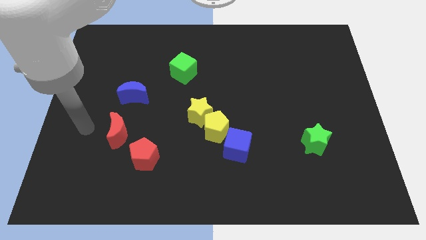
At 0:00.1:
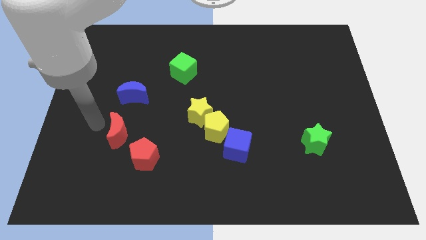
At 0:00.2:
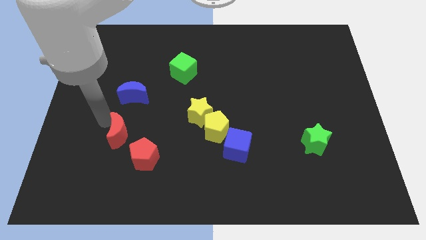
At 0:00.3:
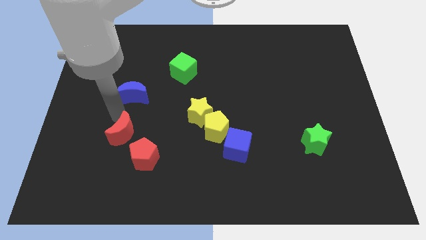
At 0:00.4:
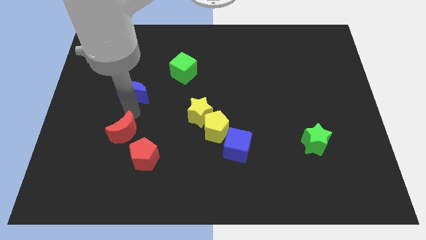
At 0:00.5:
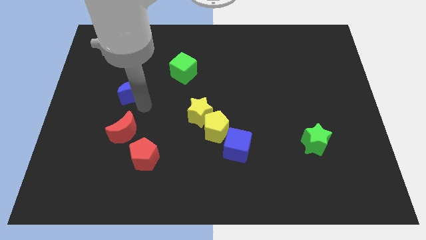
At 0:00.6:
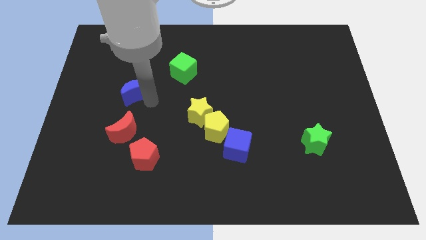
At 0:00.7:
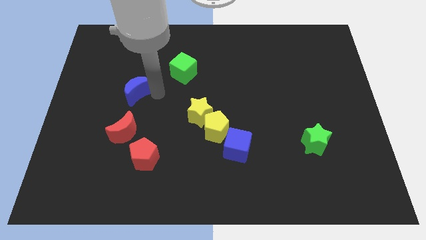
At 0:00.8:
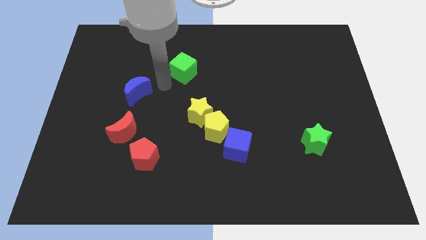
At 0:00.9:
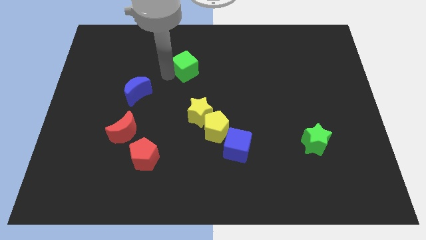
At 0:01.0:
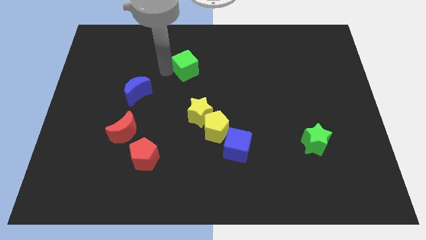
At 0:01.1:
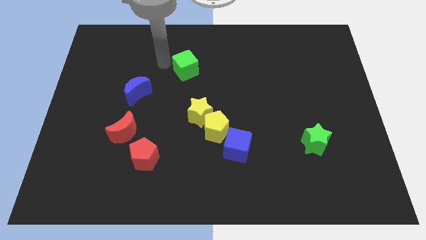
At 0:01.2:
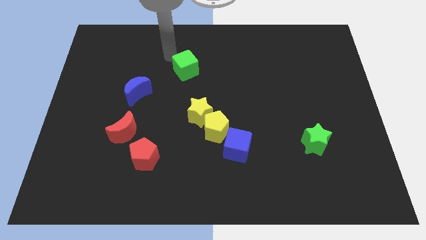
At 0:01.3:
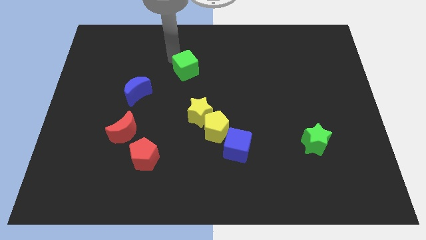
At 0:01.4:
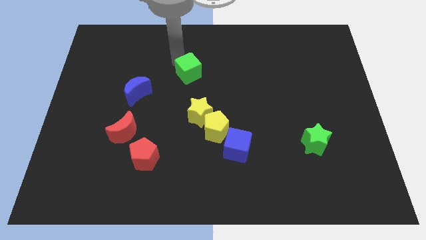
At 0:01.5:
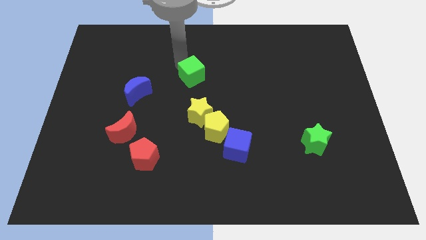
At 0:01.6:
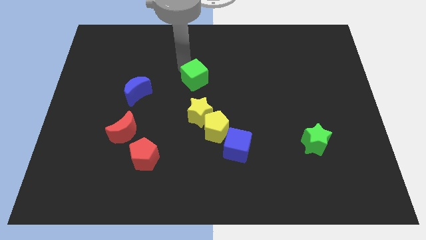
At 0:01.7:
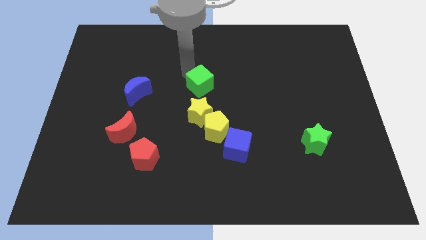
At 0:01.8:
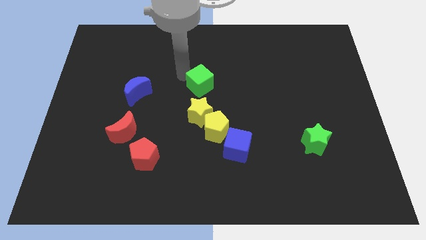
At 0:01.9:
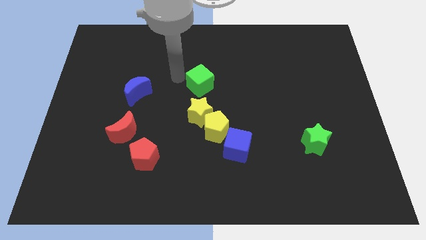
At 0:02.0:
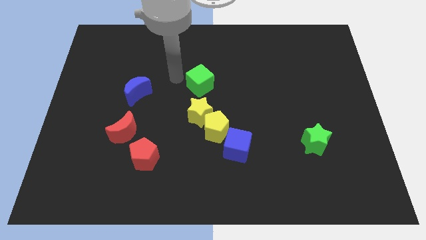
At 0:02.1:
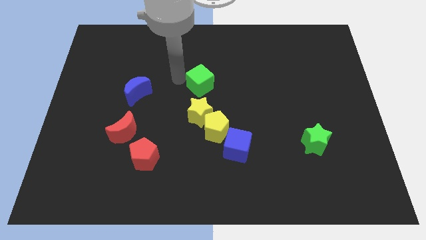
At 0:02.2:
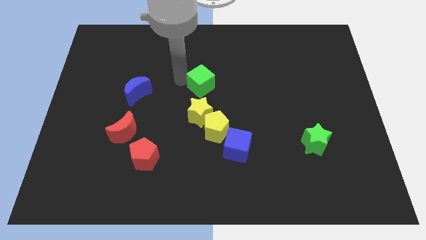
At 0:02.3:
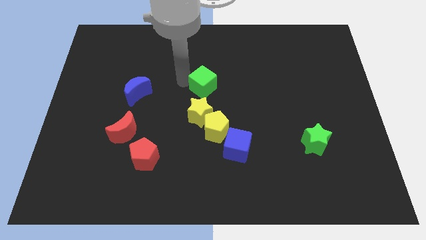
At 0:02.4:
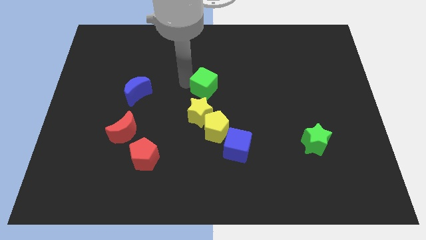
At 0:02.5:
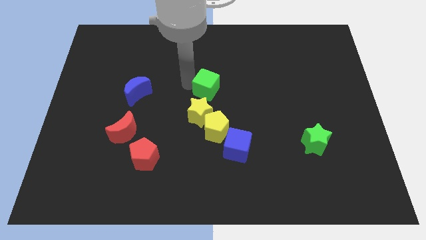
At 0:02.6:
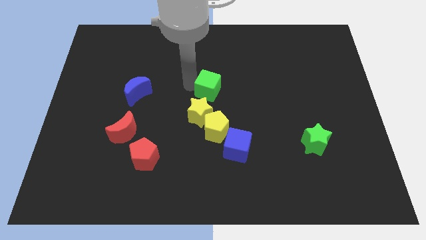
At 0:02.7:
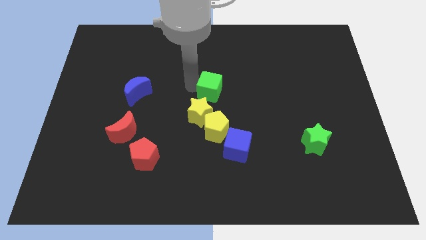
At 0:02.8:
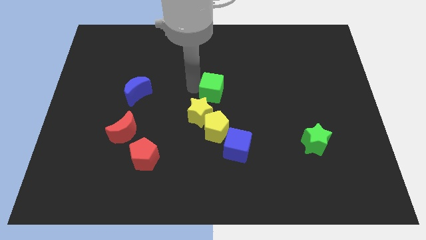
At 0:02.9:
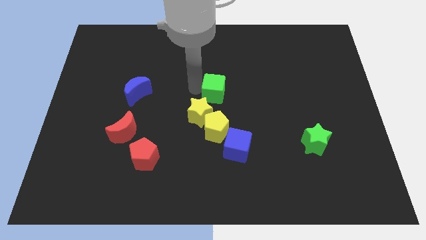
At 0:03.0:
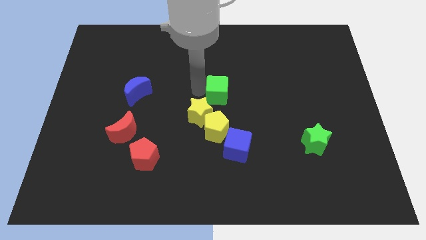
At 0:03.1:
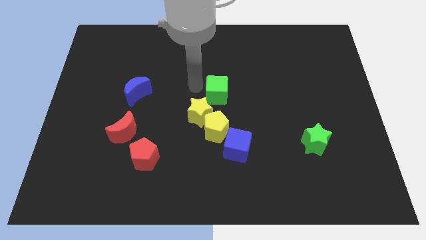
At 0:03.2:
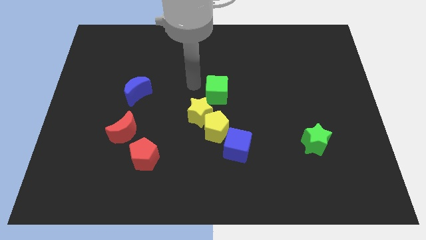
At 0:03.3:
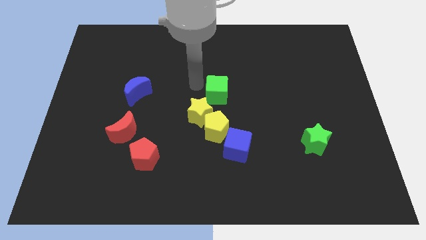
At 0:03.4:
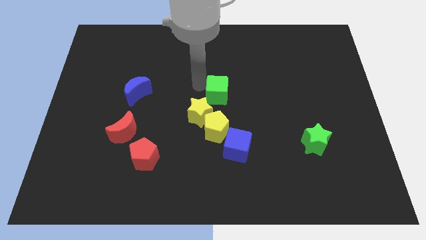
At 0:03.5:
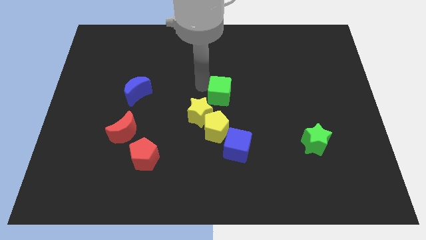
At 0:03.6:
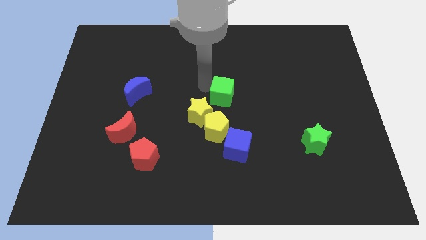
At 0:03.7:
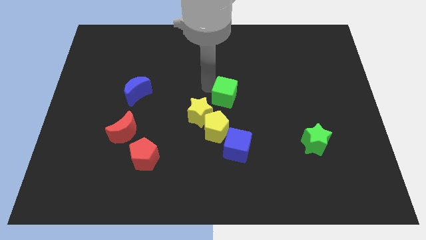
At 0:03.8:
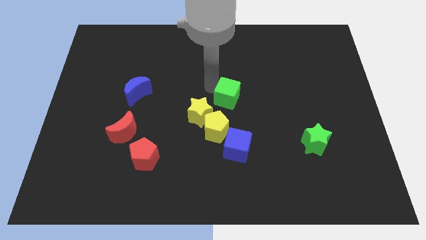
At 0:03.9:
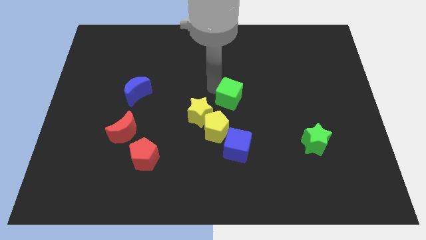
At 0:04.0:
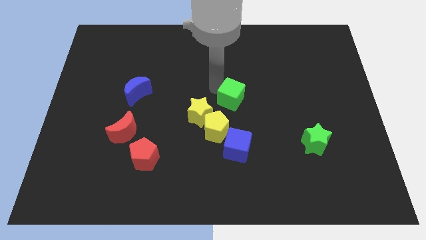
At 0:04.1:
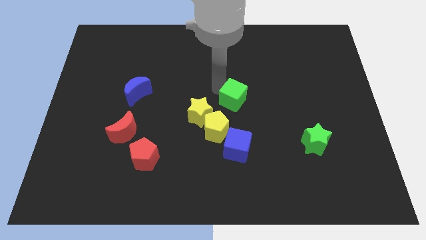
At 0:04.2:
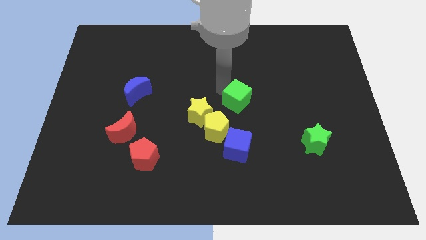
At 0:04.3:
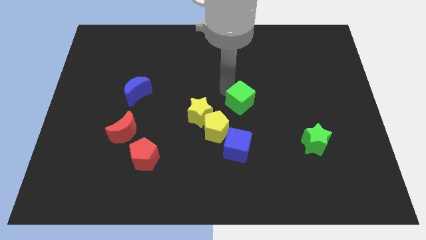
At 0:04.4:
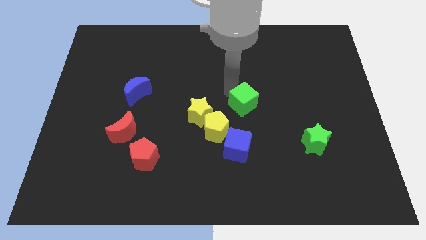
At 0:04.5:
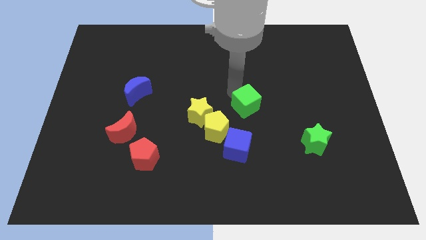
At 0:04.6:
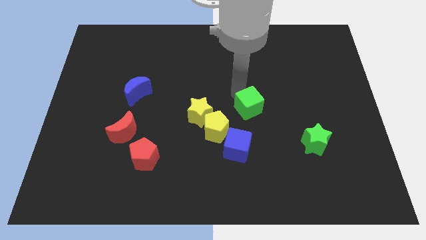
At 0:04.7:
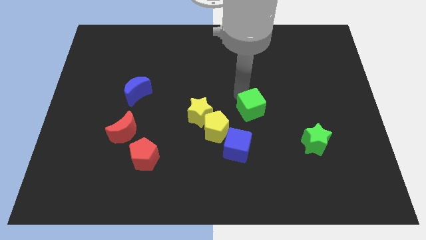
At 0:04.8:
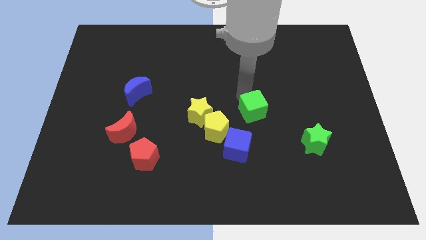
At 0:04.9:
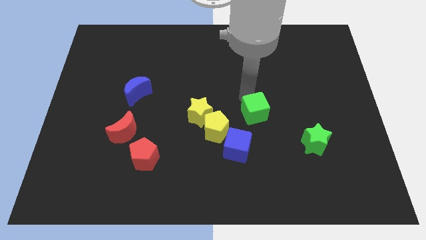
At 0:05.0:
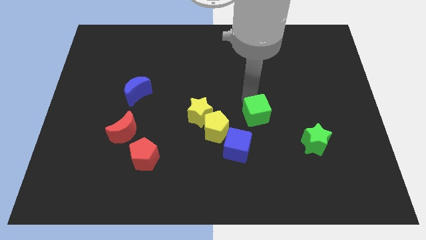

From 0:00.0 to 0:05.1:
slide the green cube just right of the yellow pentagon

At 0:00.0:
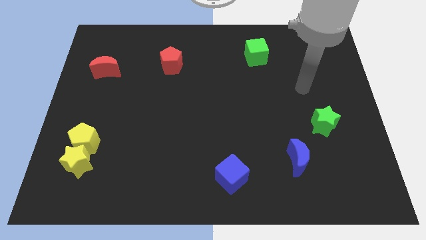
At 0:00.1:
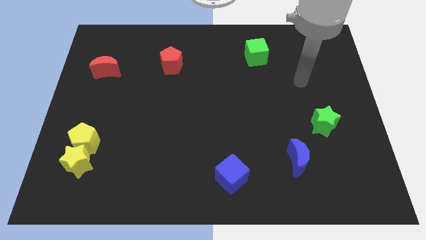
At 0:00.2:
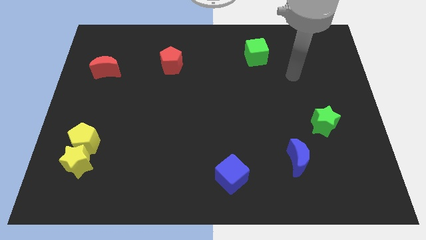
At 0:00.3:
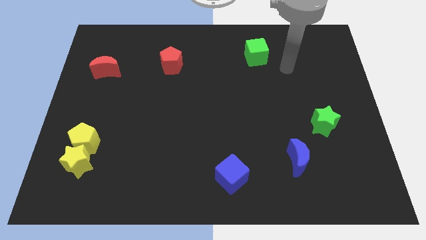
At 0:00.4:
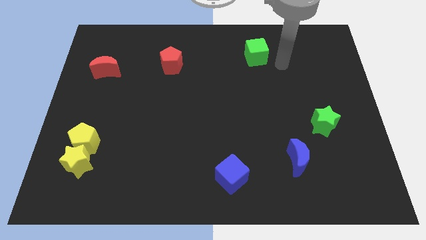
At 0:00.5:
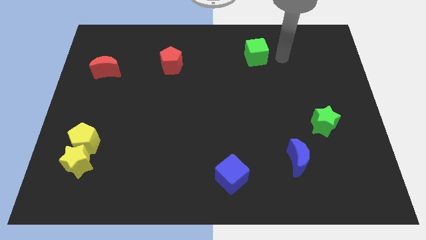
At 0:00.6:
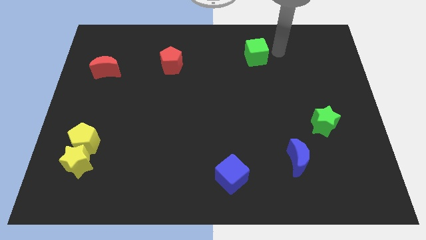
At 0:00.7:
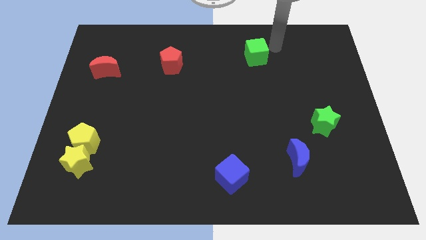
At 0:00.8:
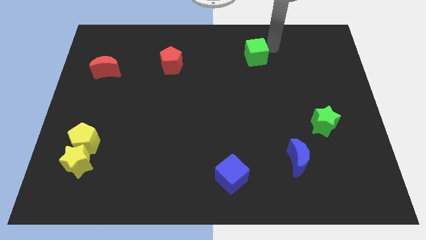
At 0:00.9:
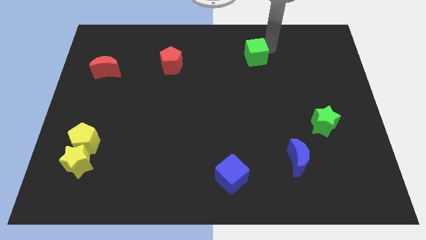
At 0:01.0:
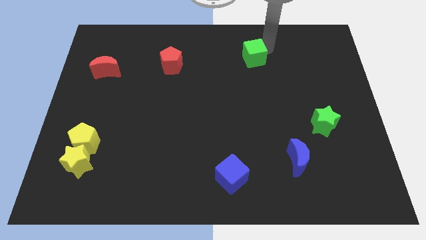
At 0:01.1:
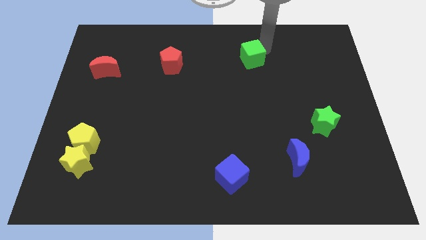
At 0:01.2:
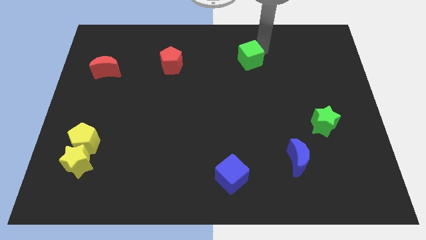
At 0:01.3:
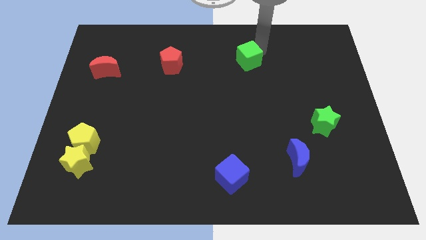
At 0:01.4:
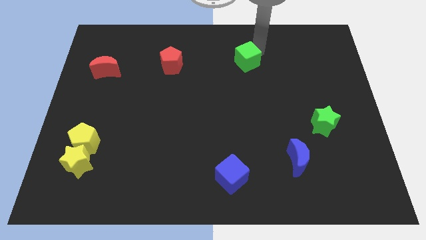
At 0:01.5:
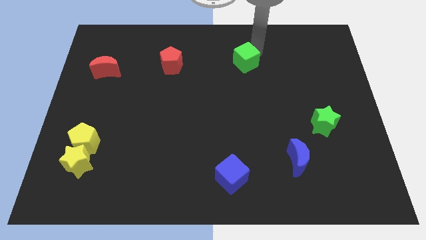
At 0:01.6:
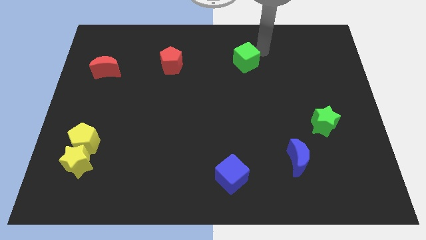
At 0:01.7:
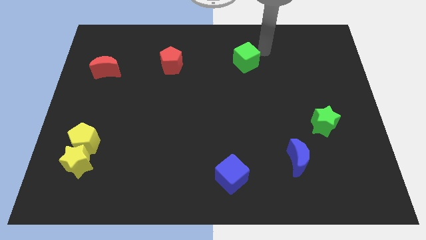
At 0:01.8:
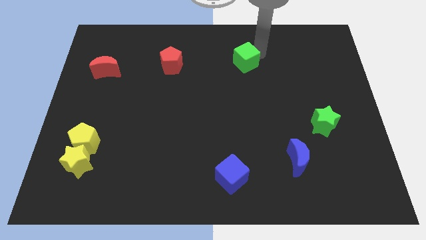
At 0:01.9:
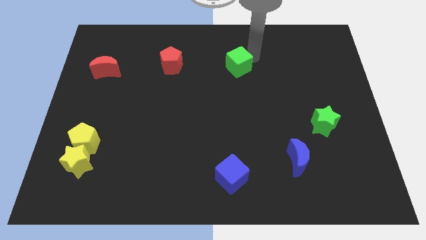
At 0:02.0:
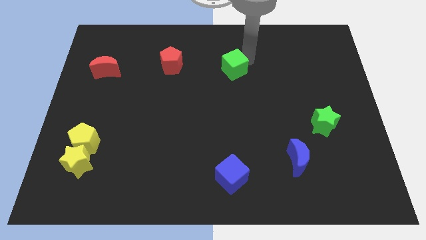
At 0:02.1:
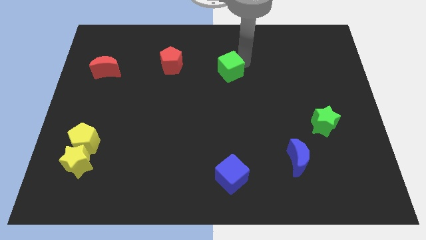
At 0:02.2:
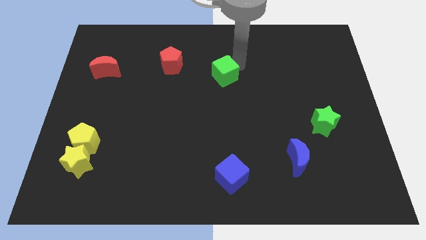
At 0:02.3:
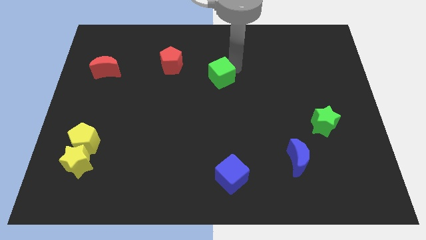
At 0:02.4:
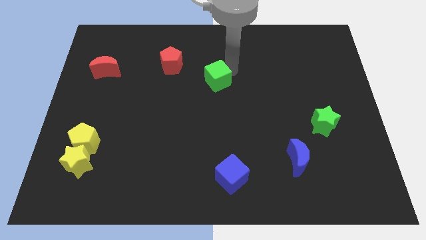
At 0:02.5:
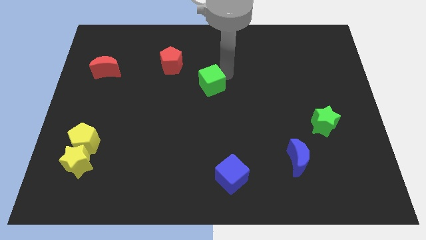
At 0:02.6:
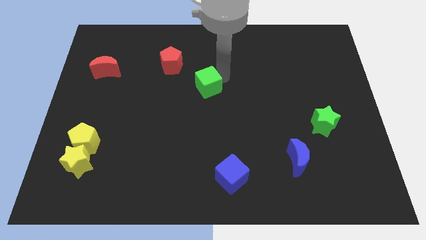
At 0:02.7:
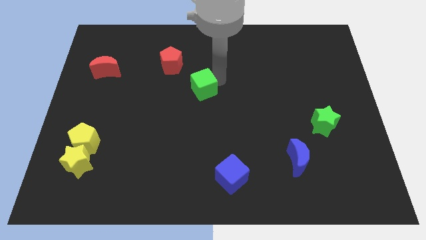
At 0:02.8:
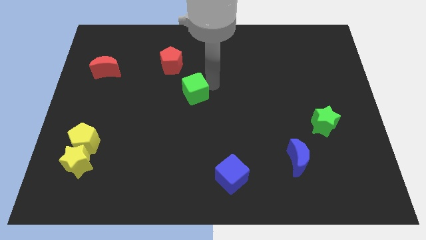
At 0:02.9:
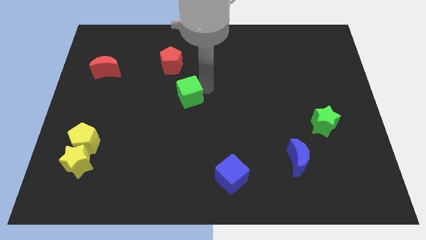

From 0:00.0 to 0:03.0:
push the green cube to the bottom of the red pentagon
